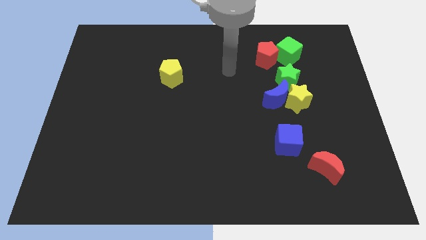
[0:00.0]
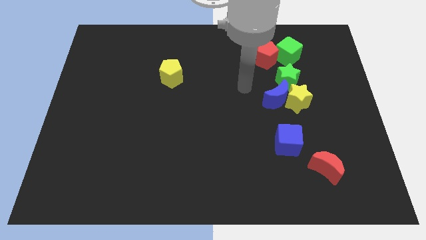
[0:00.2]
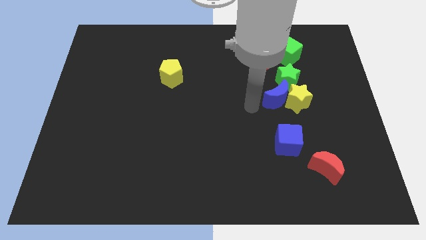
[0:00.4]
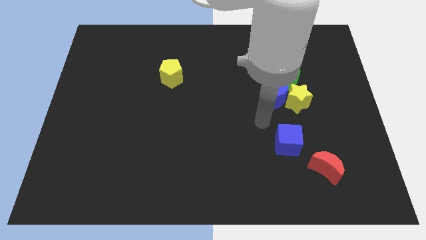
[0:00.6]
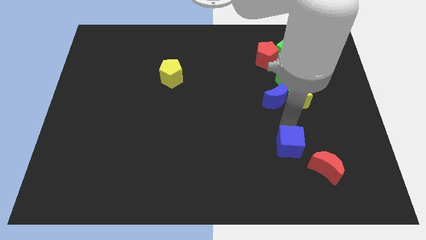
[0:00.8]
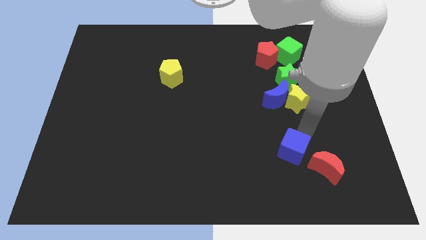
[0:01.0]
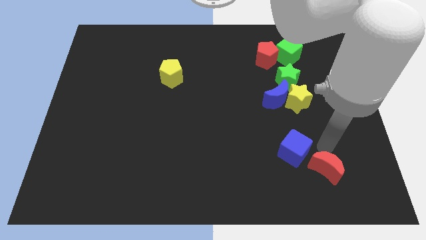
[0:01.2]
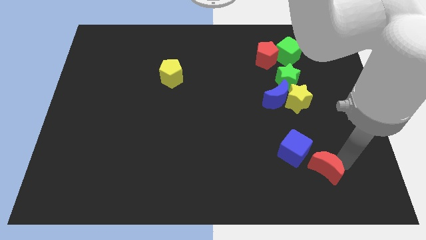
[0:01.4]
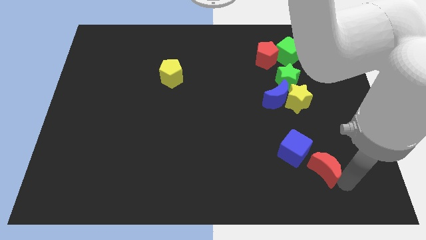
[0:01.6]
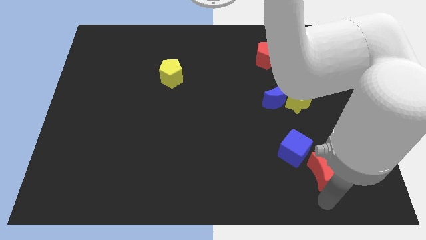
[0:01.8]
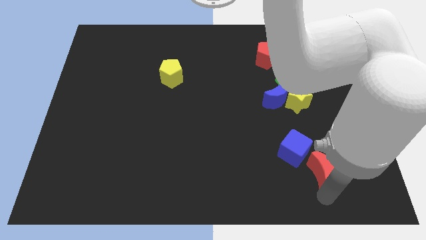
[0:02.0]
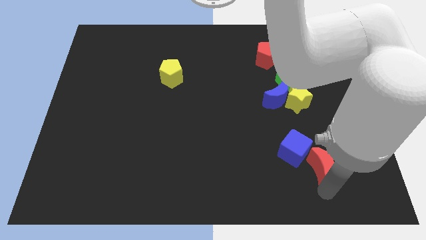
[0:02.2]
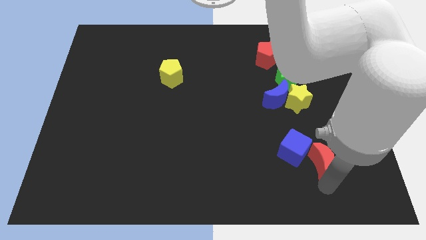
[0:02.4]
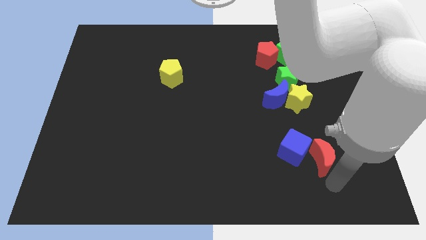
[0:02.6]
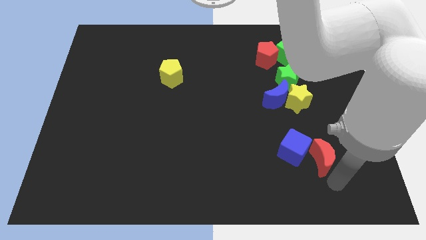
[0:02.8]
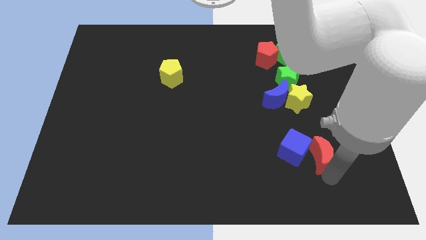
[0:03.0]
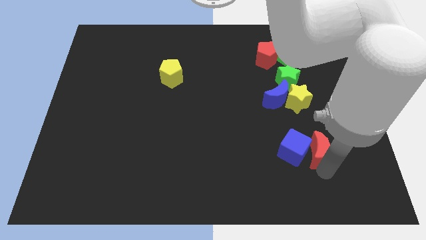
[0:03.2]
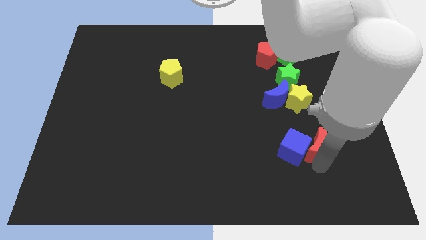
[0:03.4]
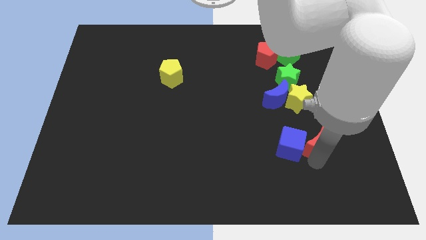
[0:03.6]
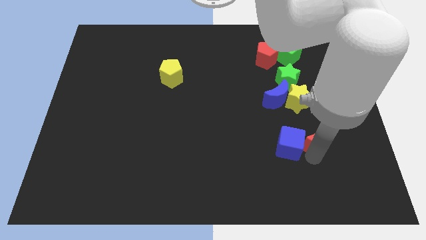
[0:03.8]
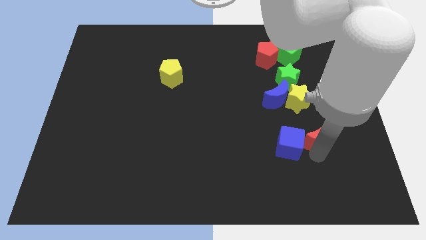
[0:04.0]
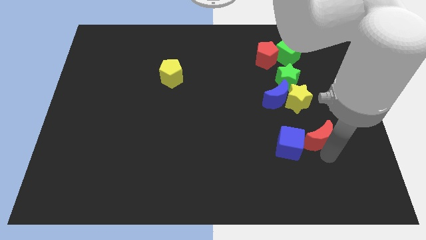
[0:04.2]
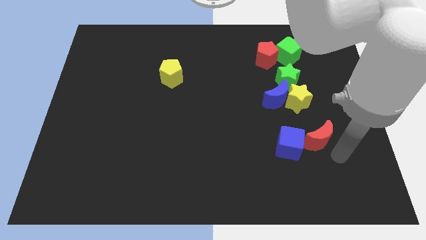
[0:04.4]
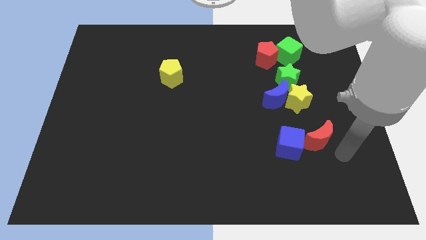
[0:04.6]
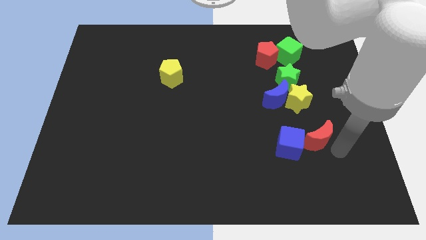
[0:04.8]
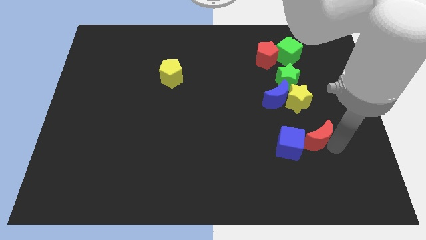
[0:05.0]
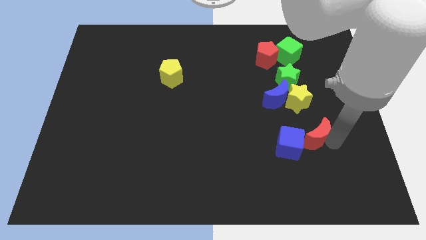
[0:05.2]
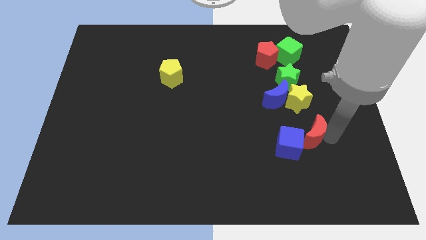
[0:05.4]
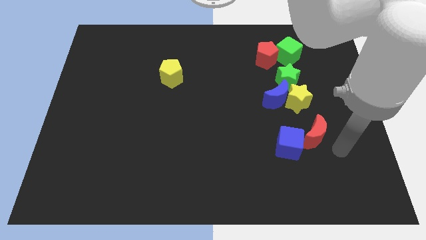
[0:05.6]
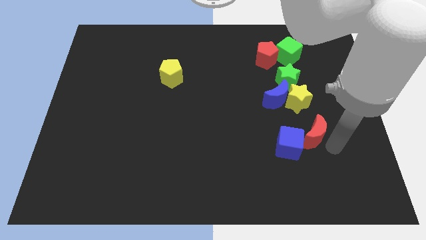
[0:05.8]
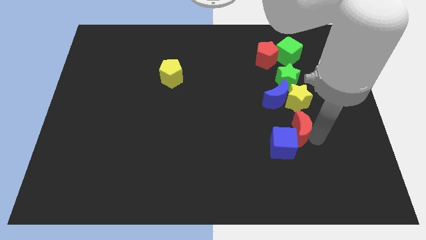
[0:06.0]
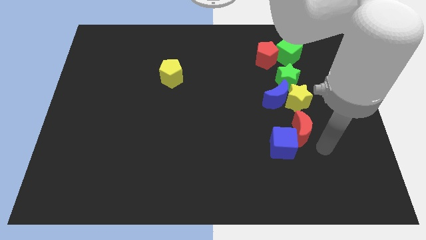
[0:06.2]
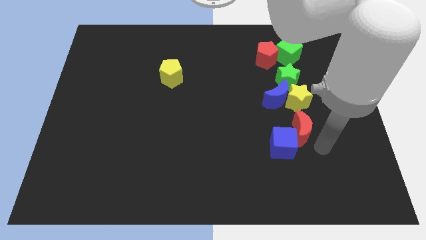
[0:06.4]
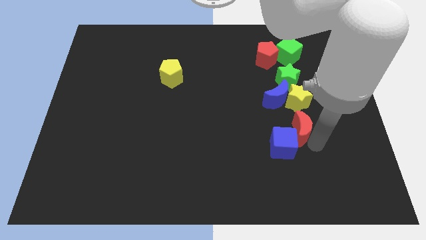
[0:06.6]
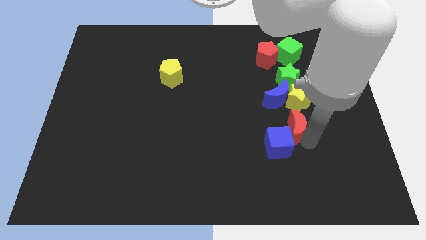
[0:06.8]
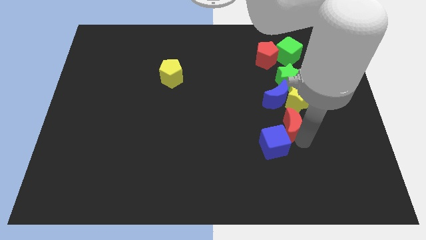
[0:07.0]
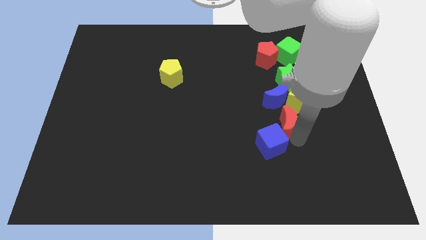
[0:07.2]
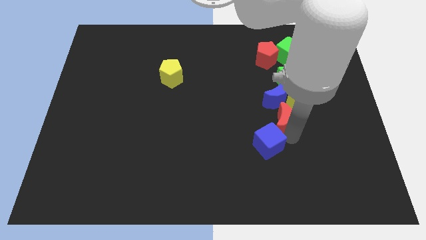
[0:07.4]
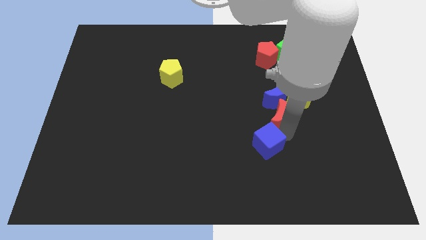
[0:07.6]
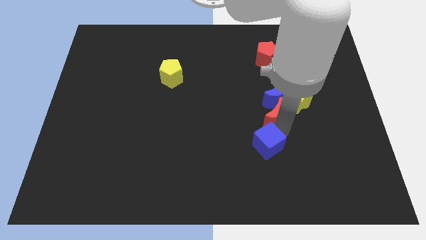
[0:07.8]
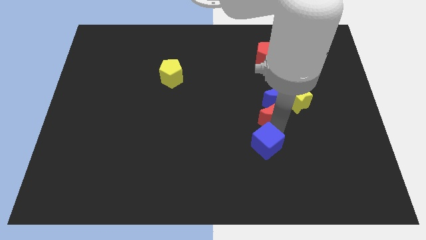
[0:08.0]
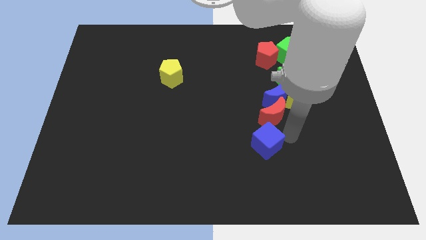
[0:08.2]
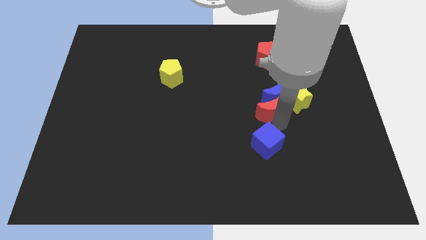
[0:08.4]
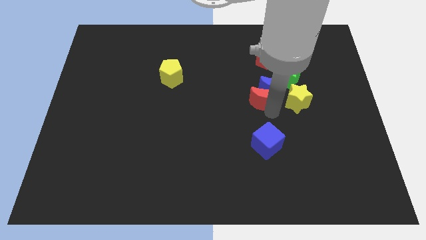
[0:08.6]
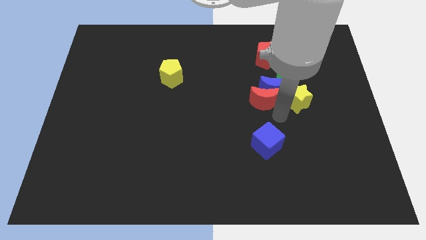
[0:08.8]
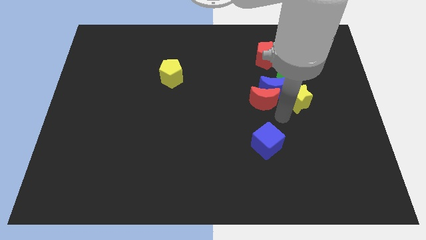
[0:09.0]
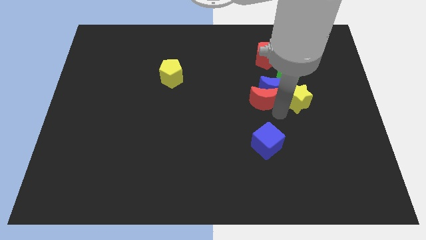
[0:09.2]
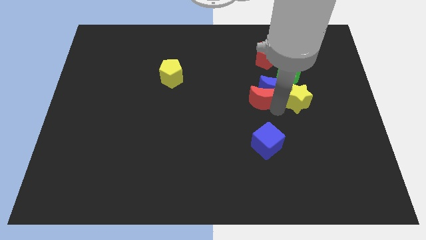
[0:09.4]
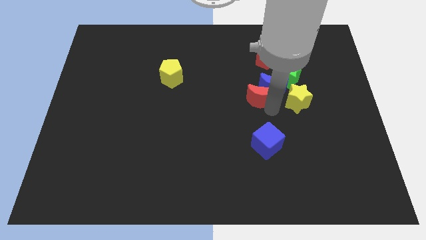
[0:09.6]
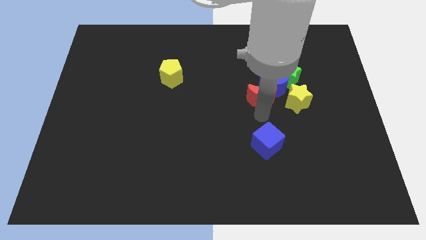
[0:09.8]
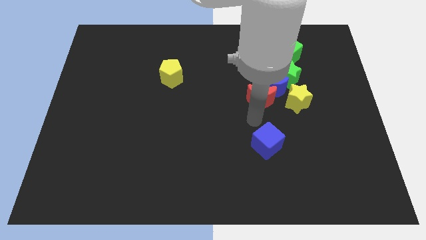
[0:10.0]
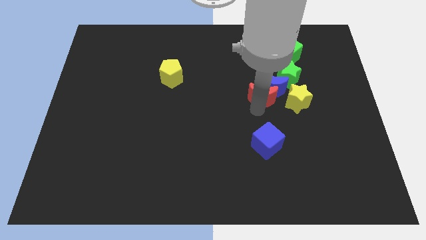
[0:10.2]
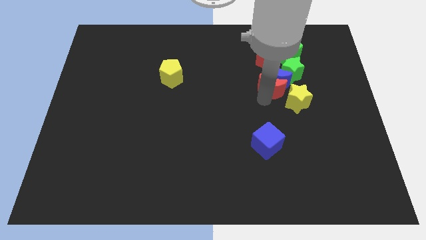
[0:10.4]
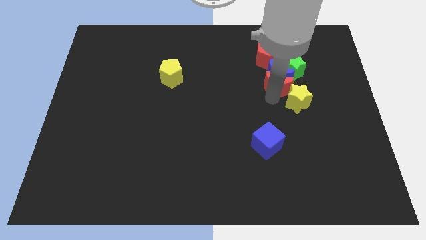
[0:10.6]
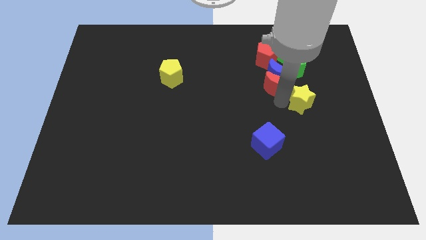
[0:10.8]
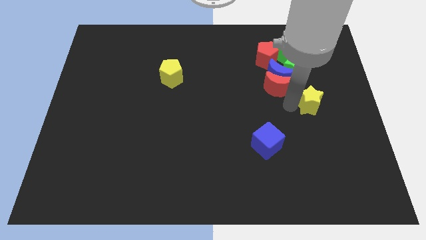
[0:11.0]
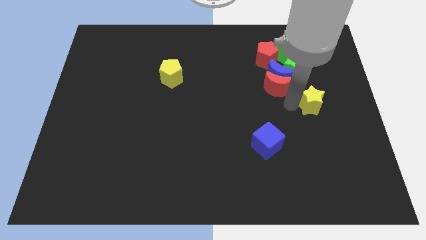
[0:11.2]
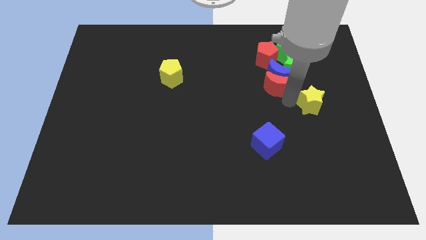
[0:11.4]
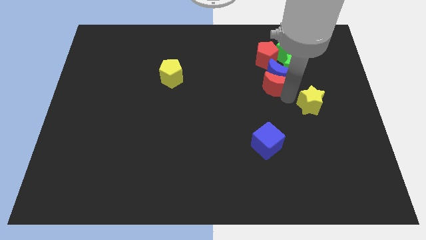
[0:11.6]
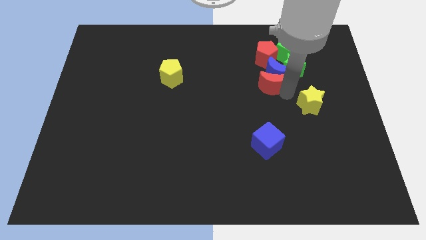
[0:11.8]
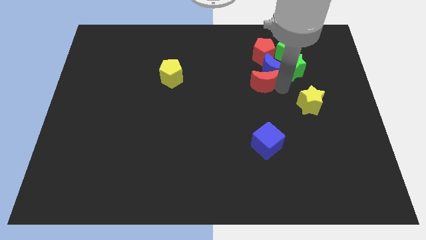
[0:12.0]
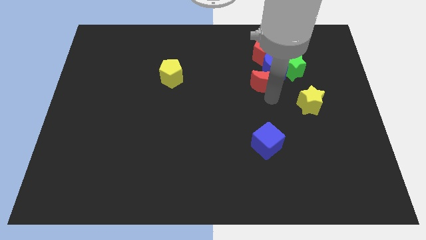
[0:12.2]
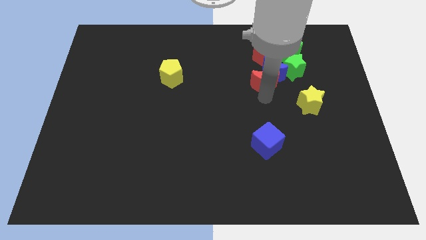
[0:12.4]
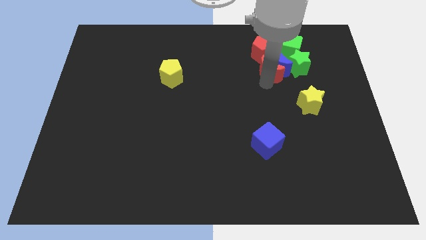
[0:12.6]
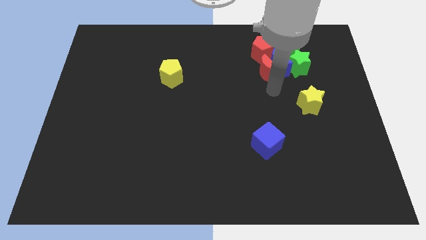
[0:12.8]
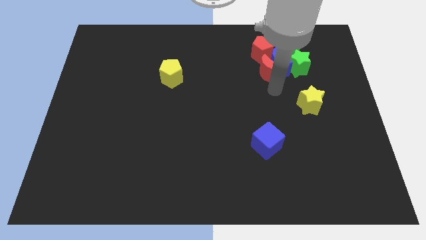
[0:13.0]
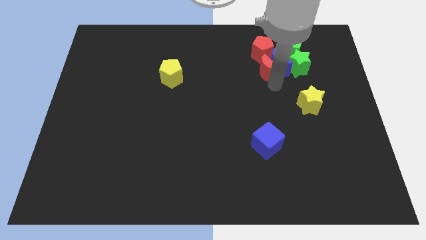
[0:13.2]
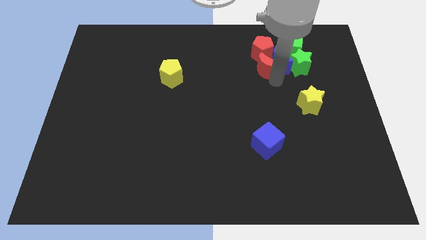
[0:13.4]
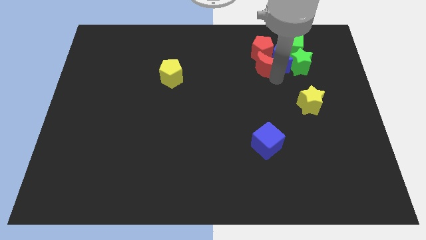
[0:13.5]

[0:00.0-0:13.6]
push the red moon next to the red pentagon

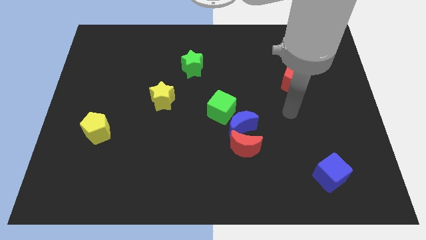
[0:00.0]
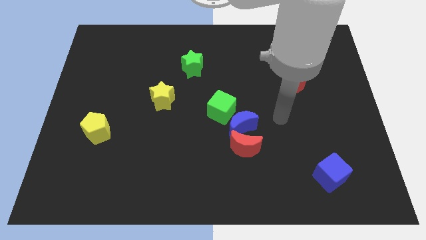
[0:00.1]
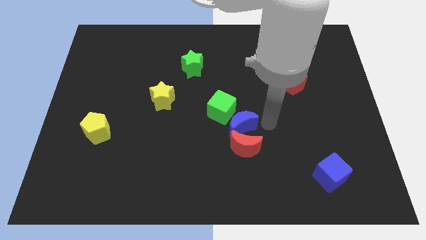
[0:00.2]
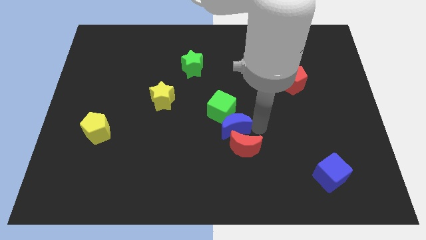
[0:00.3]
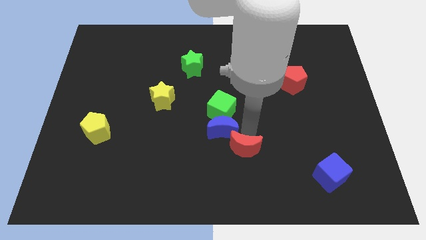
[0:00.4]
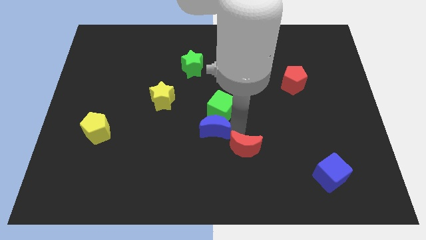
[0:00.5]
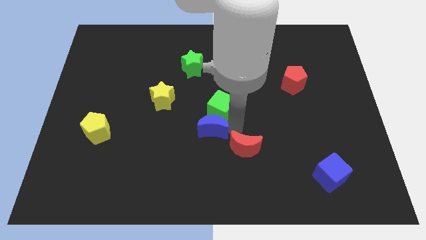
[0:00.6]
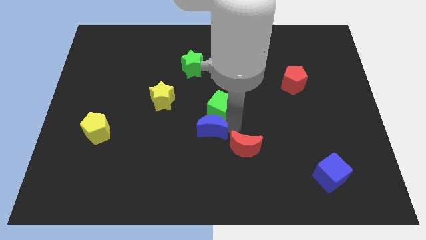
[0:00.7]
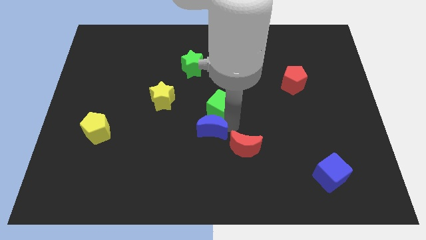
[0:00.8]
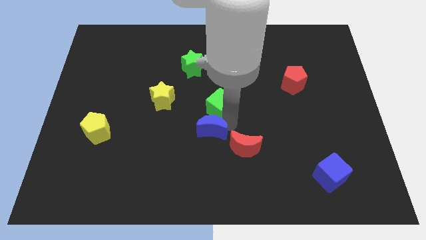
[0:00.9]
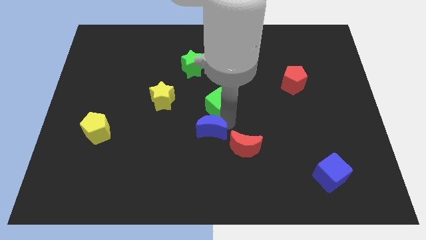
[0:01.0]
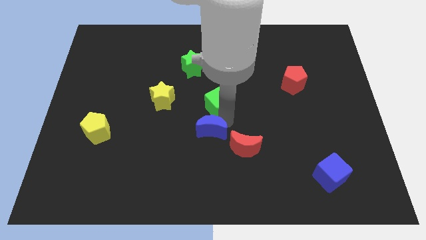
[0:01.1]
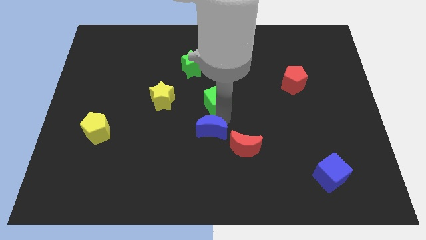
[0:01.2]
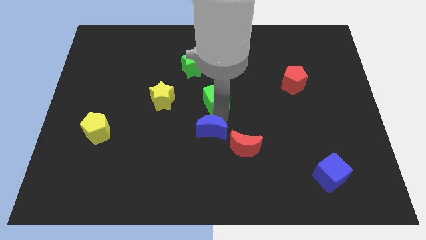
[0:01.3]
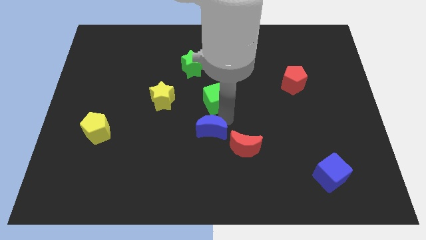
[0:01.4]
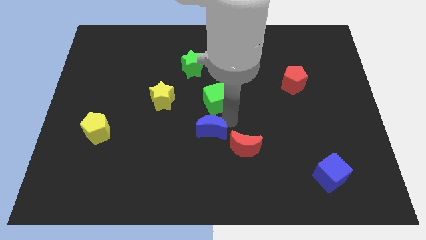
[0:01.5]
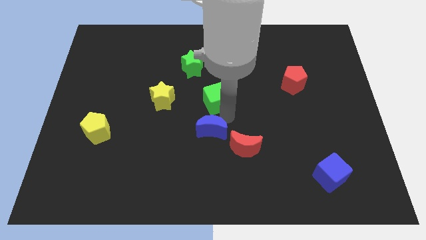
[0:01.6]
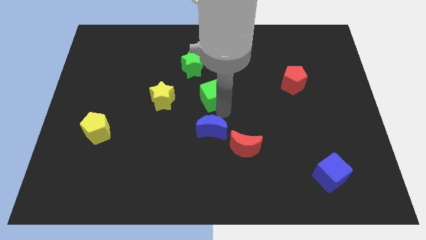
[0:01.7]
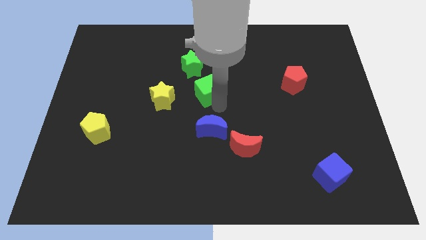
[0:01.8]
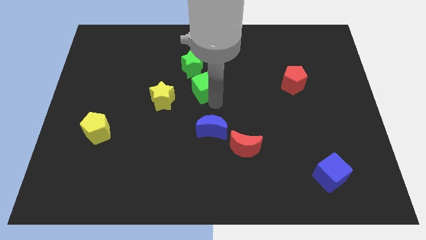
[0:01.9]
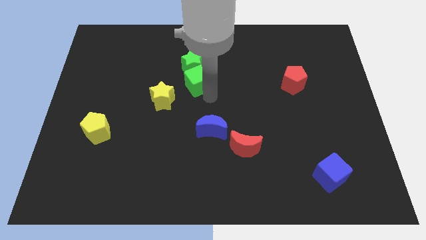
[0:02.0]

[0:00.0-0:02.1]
slide the green cube next to the green star
